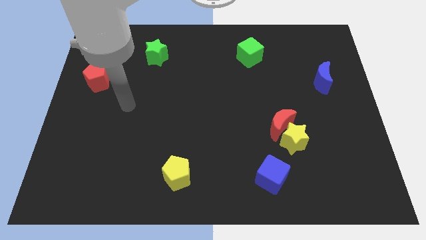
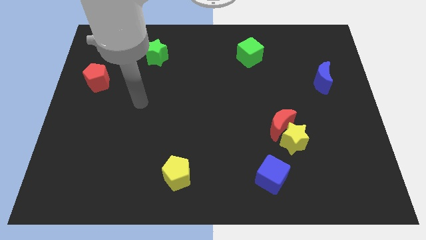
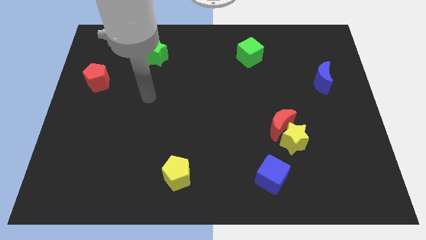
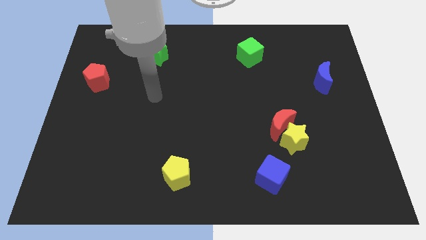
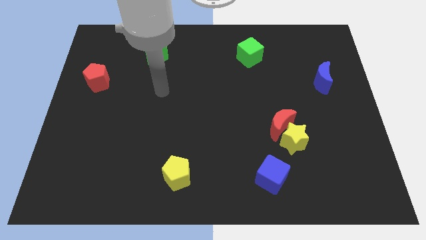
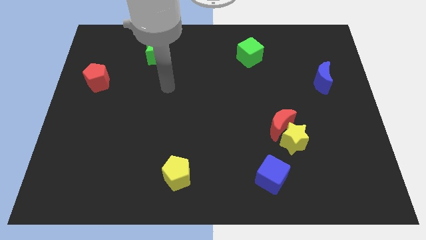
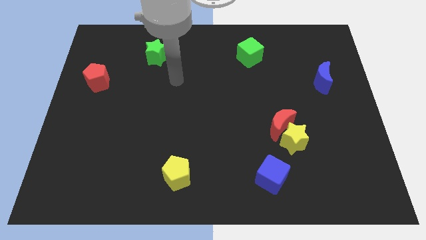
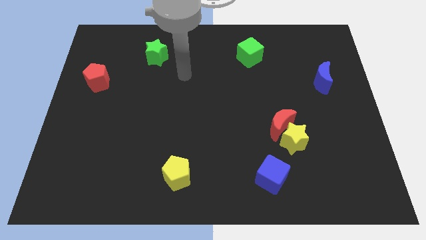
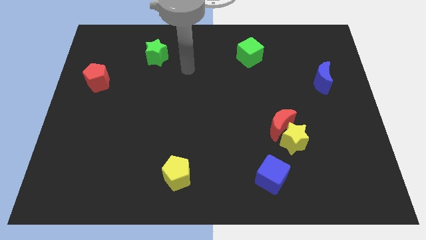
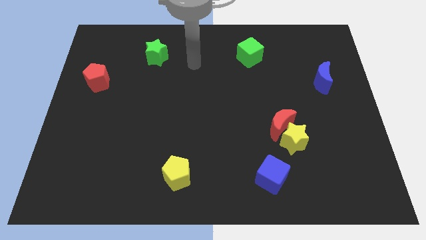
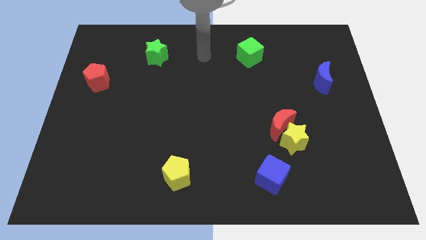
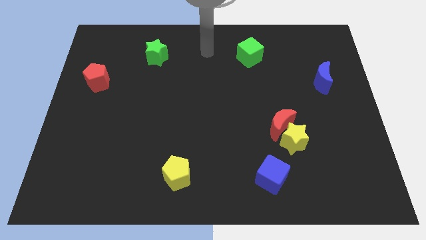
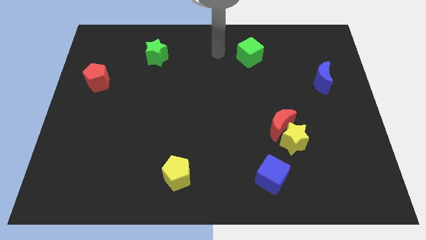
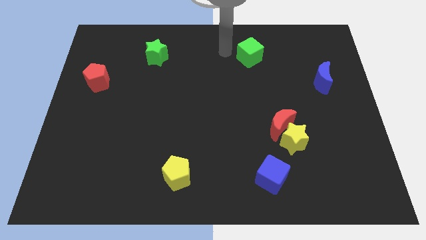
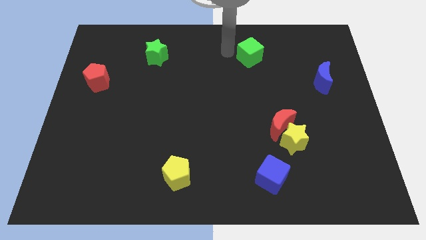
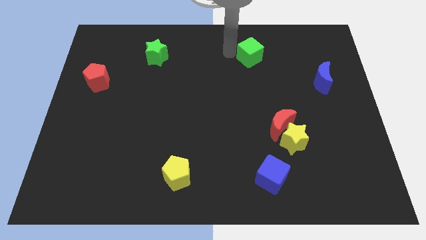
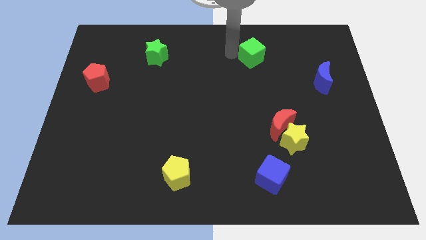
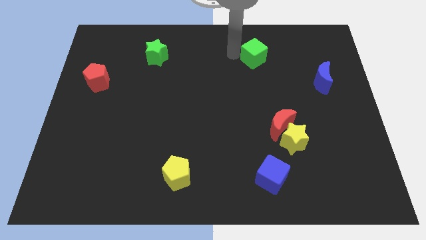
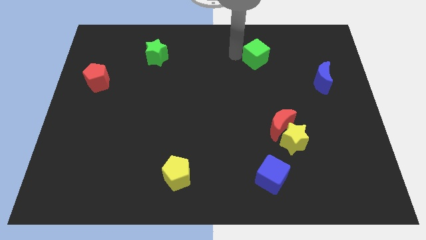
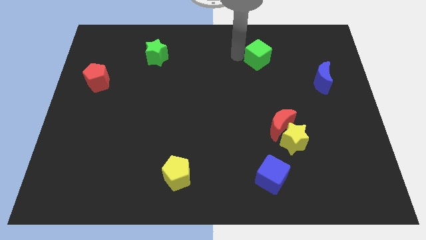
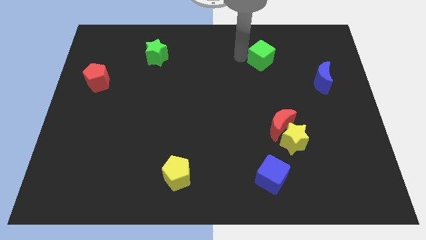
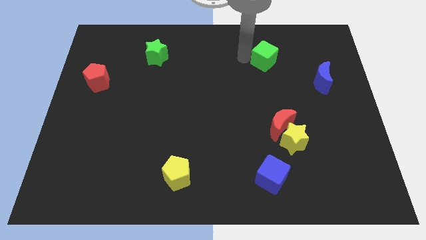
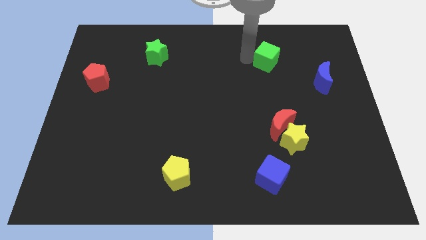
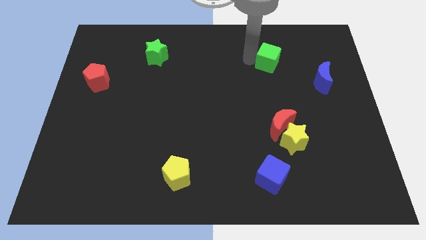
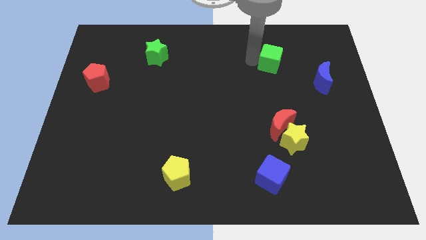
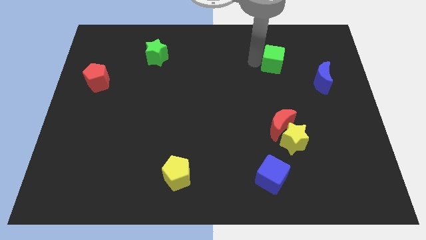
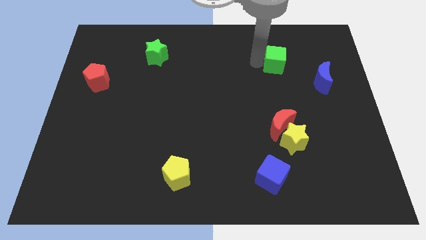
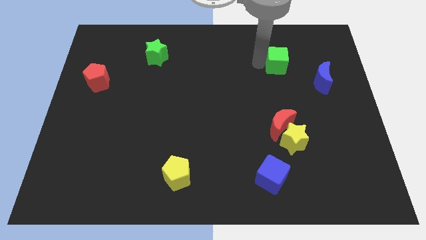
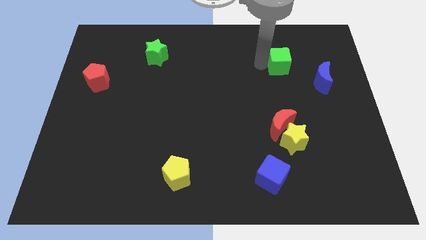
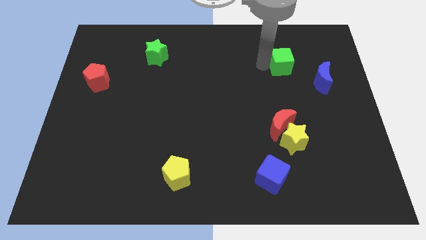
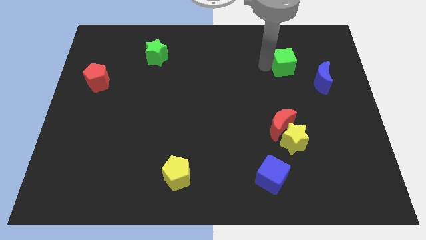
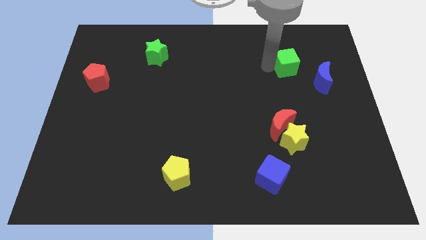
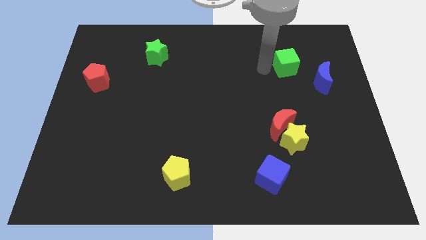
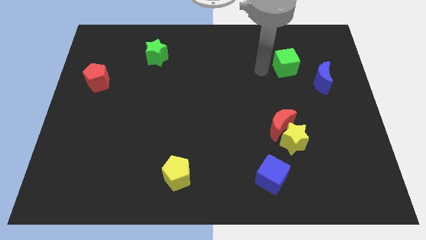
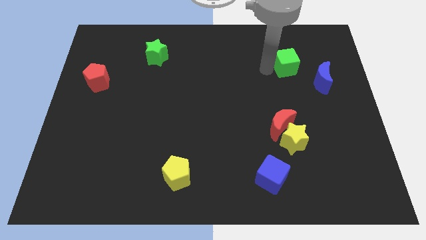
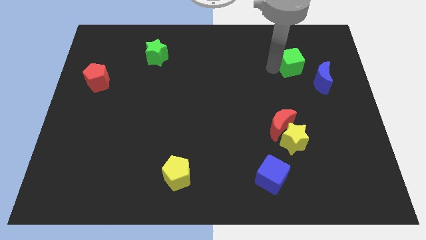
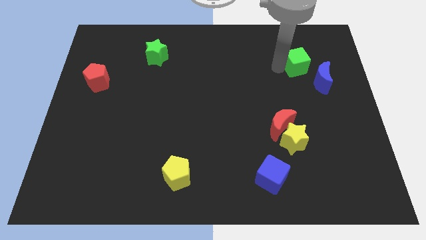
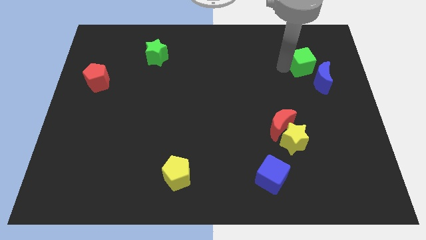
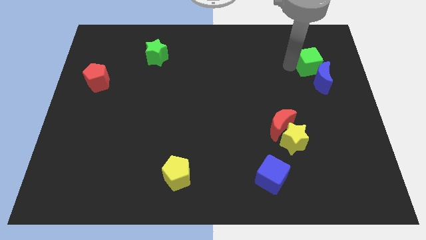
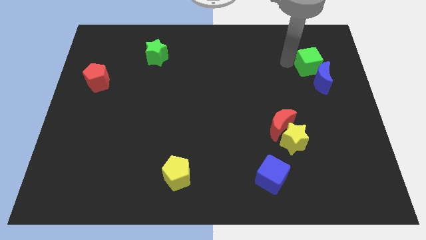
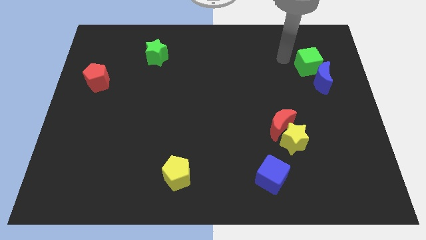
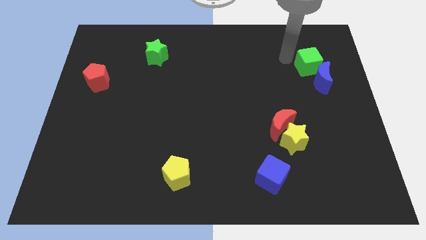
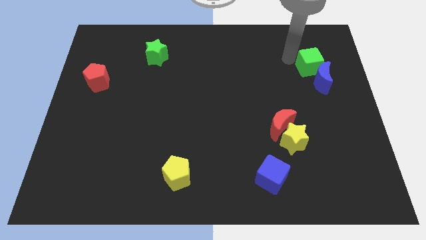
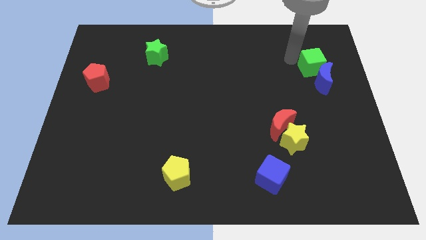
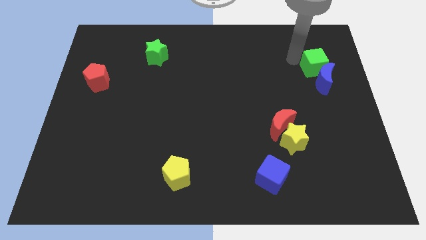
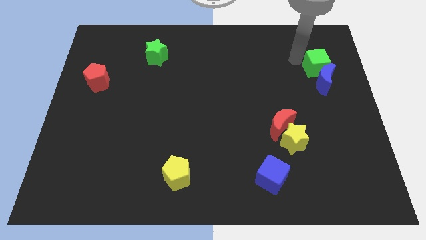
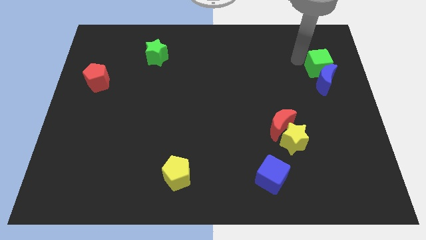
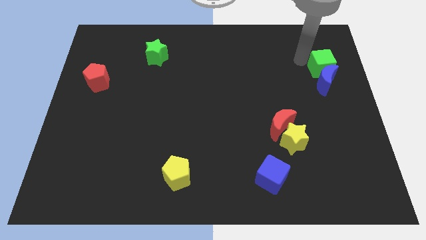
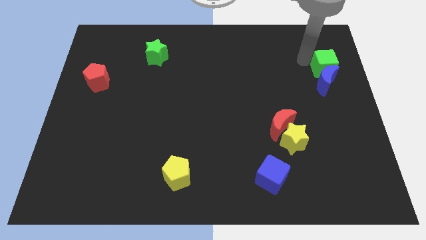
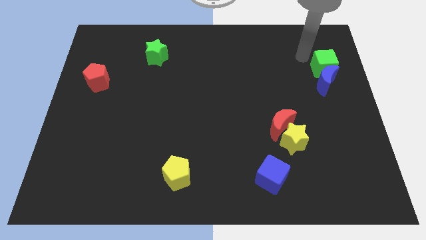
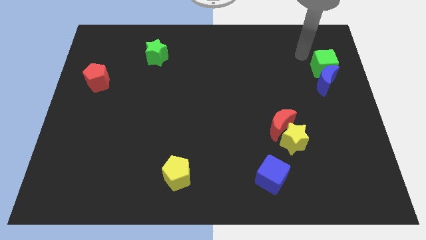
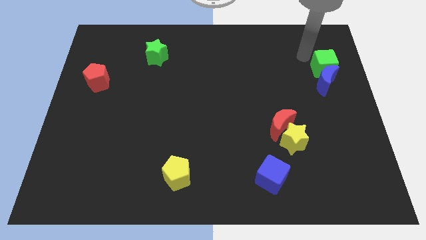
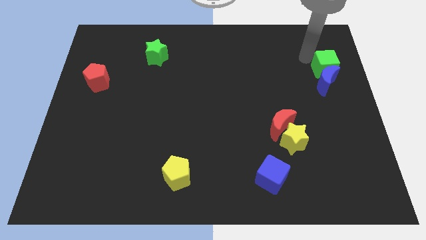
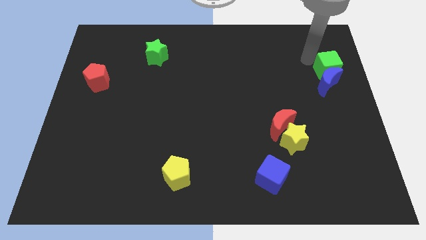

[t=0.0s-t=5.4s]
push the green cube to the right side

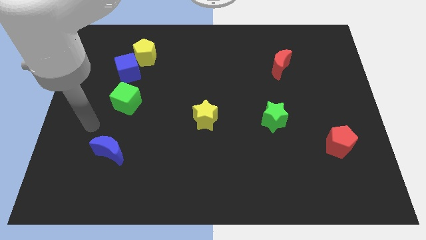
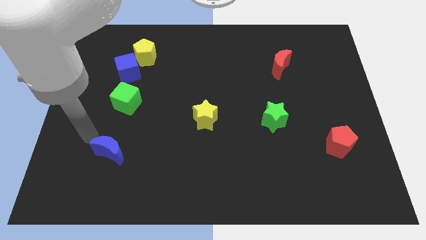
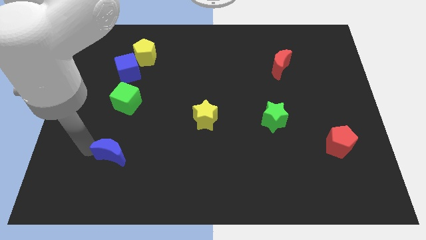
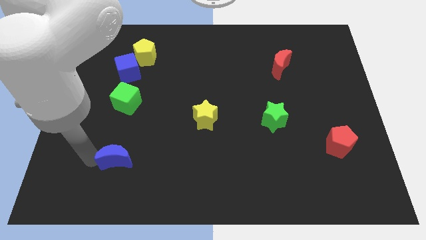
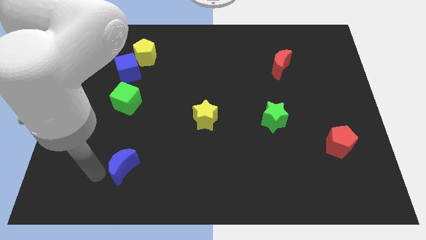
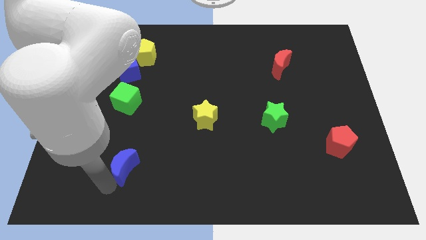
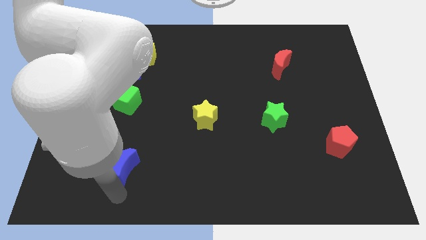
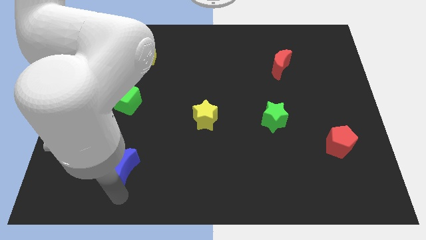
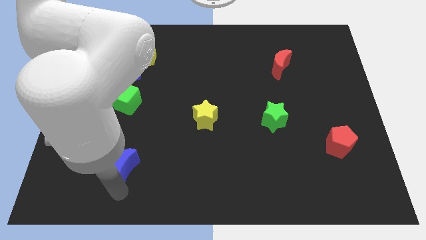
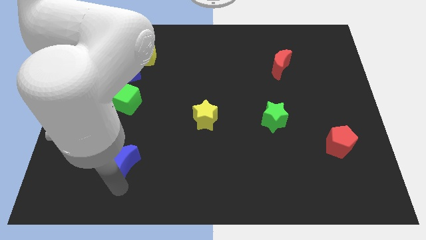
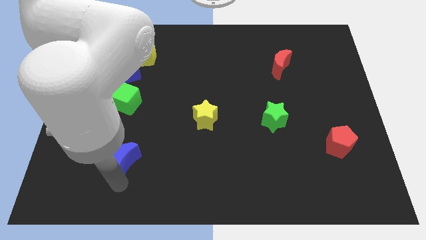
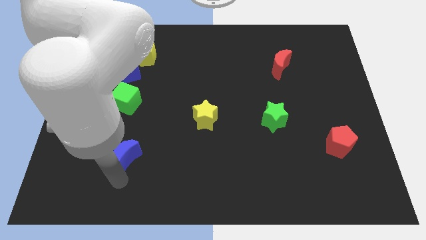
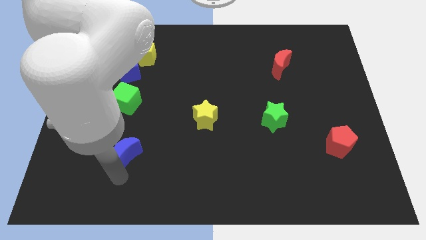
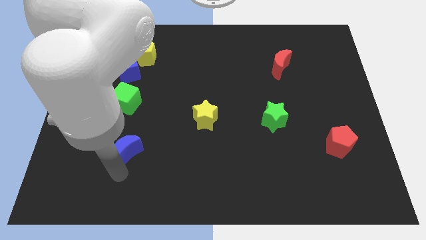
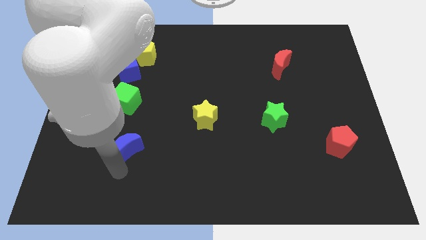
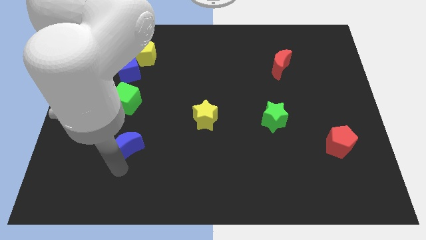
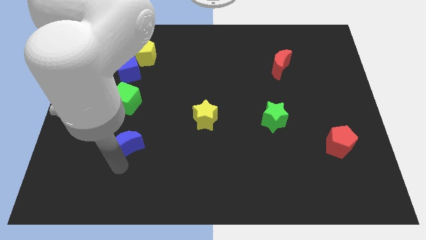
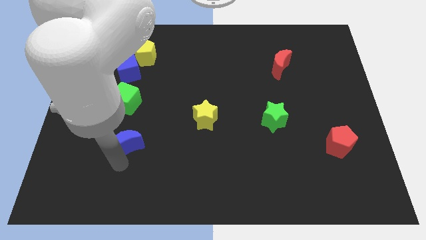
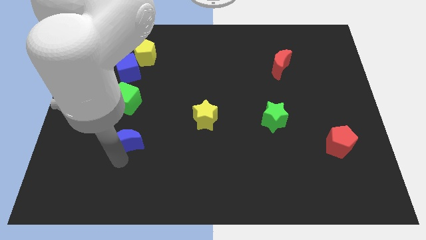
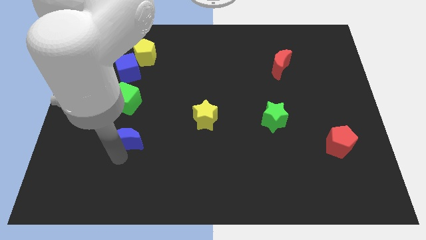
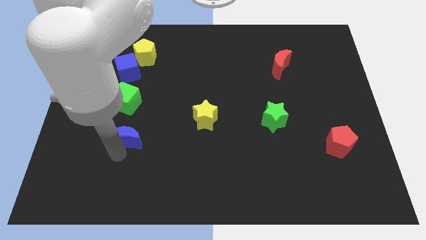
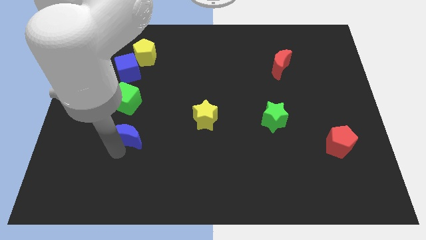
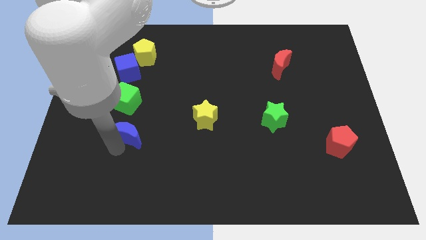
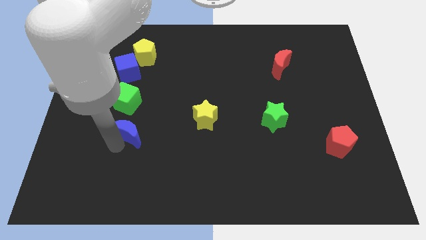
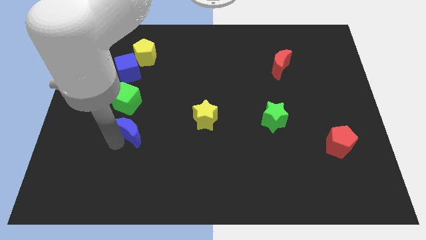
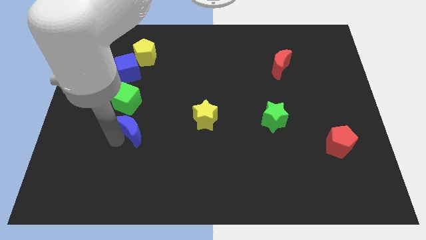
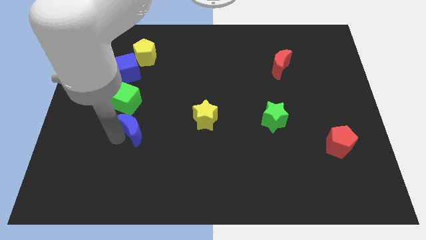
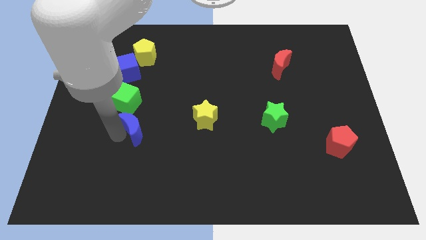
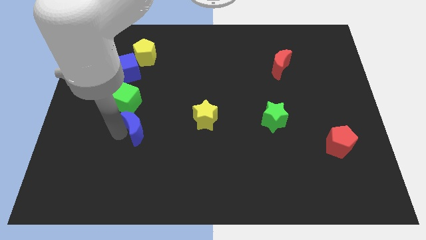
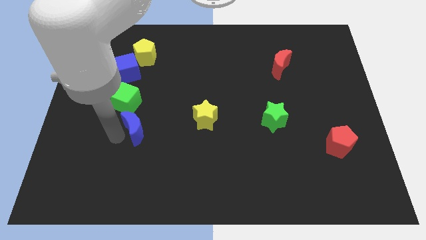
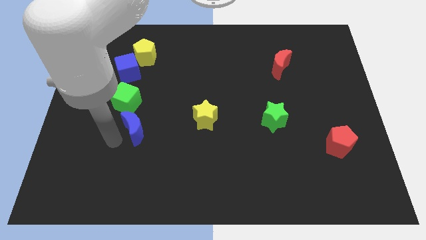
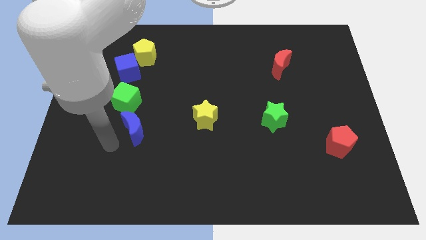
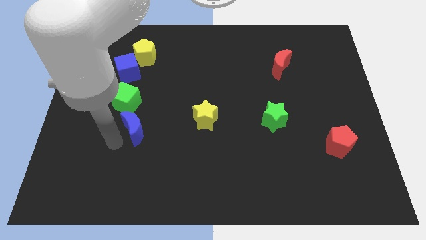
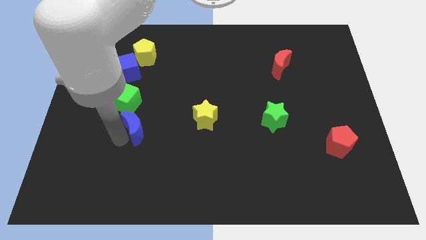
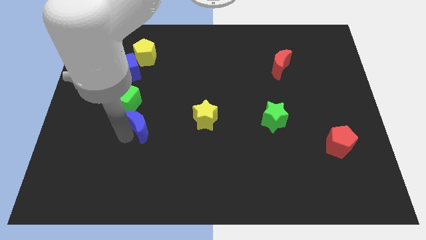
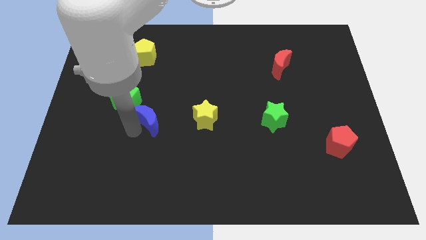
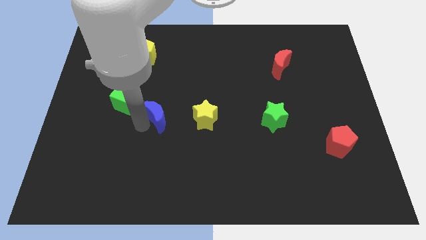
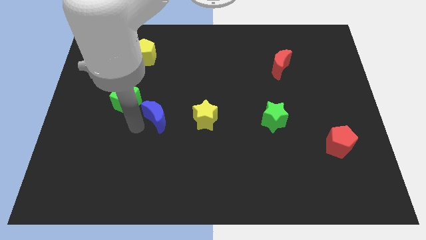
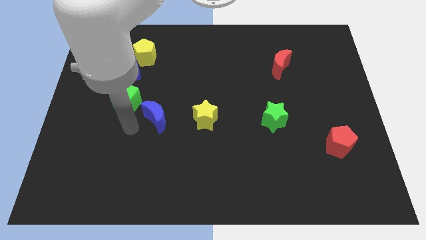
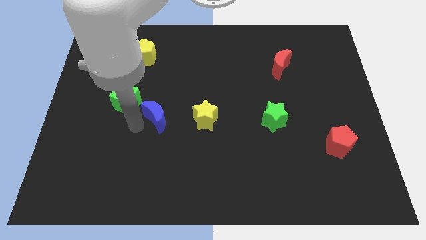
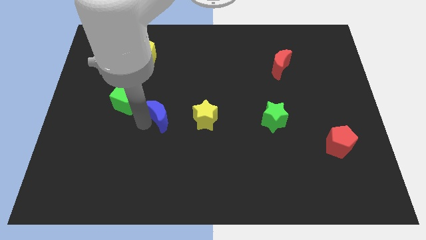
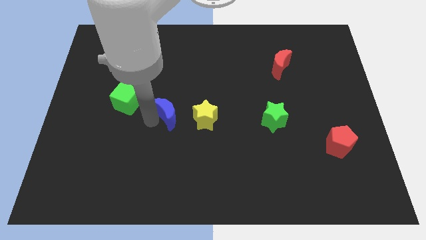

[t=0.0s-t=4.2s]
move the blue moon to the middle of the board
